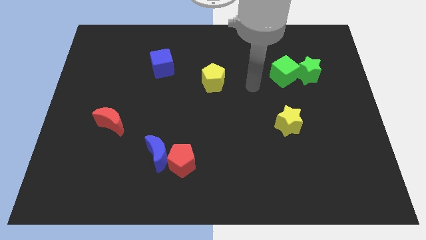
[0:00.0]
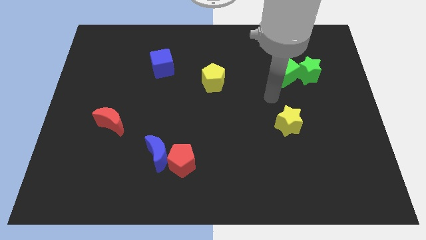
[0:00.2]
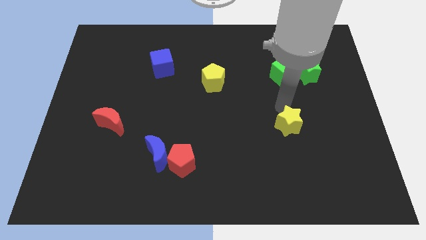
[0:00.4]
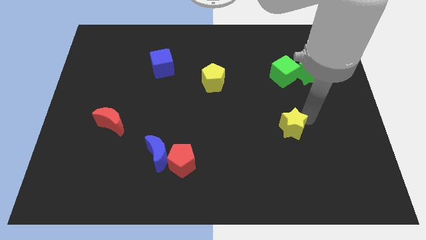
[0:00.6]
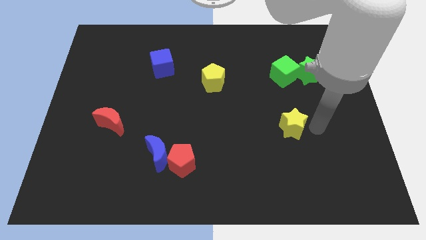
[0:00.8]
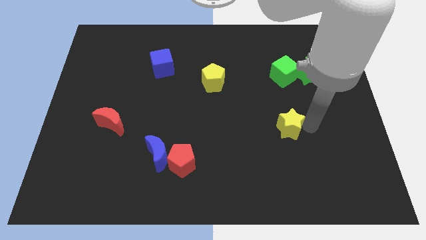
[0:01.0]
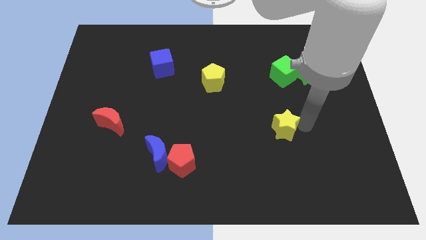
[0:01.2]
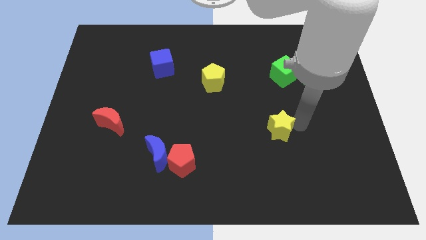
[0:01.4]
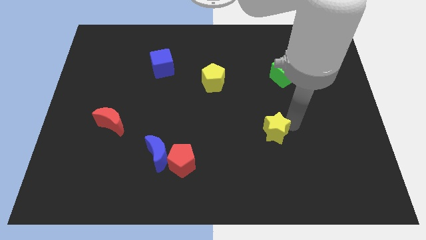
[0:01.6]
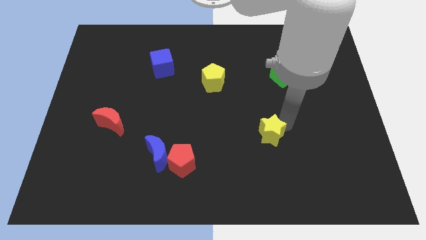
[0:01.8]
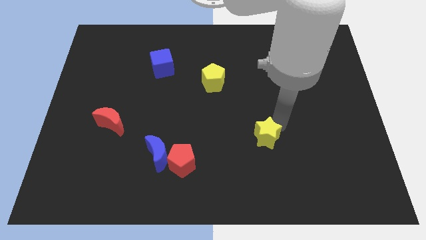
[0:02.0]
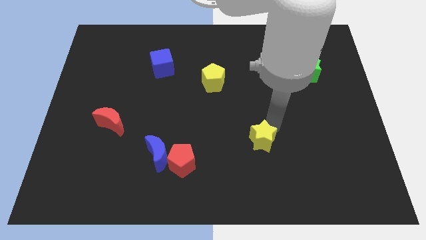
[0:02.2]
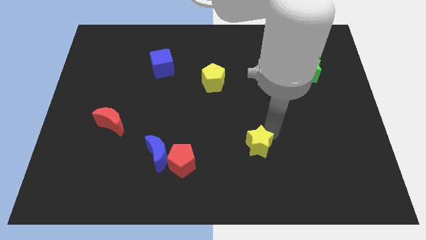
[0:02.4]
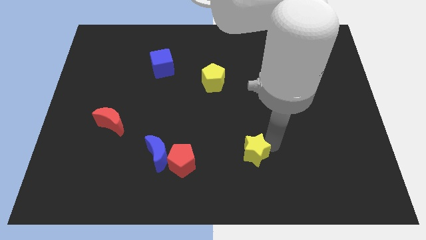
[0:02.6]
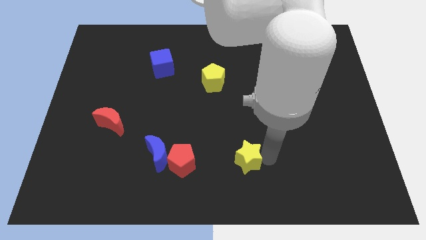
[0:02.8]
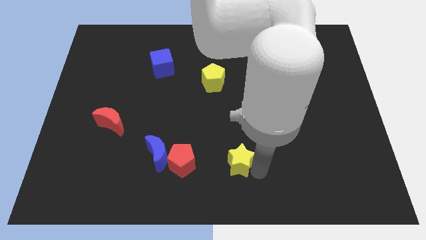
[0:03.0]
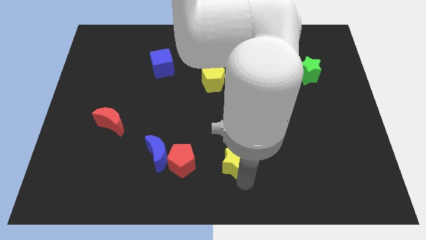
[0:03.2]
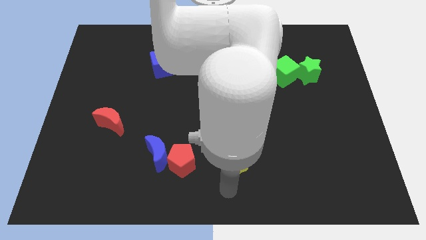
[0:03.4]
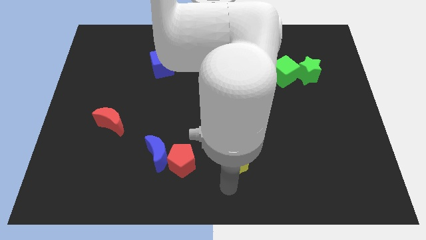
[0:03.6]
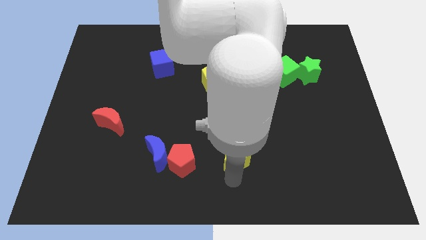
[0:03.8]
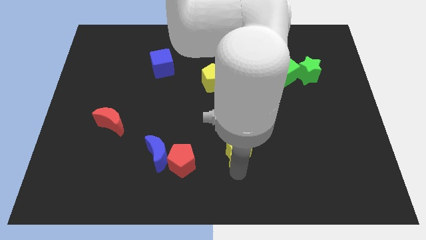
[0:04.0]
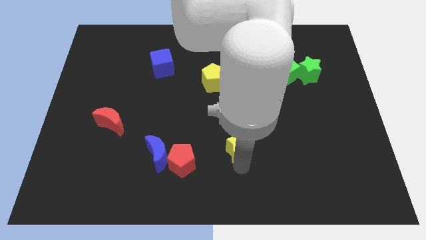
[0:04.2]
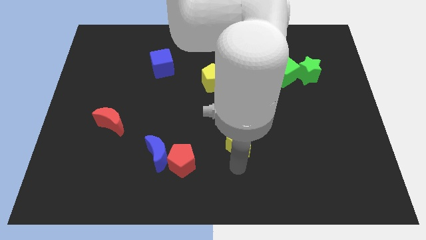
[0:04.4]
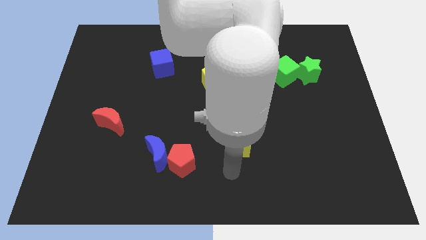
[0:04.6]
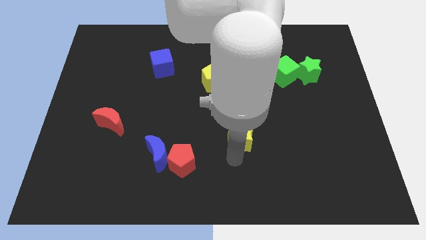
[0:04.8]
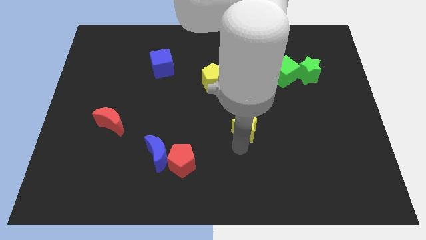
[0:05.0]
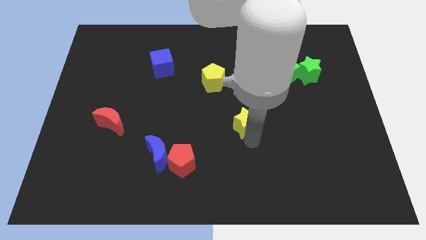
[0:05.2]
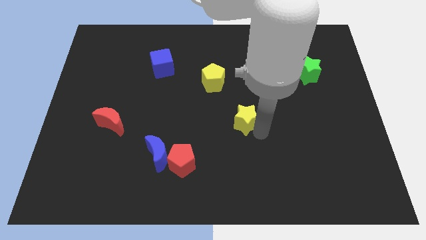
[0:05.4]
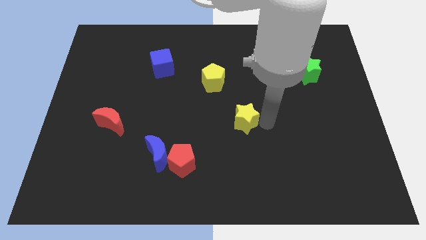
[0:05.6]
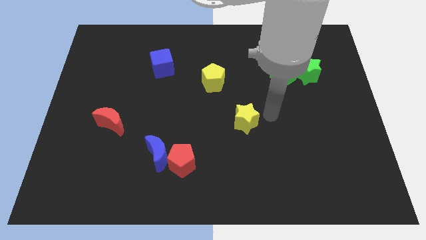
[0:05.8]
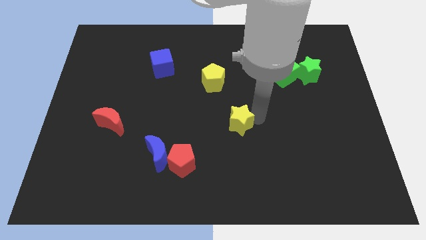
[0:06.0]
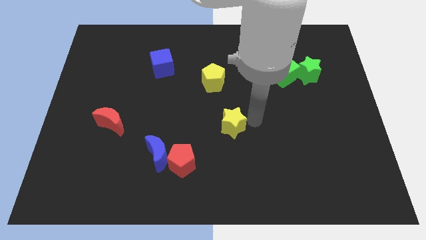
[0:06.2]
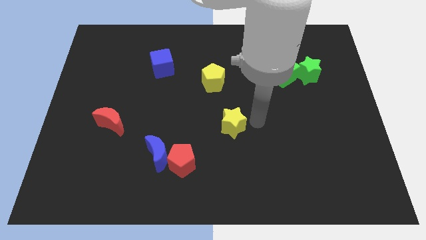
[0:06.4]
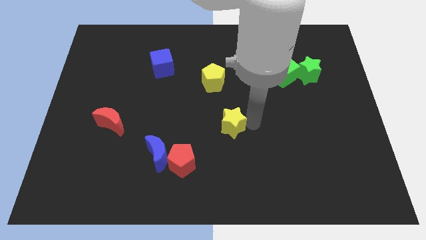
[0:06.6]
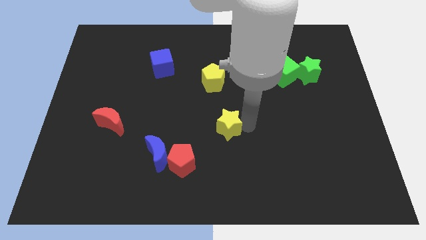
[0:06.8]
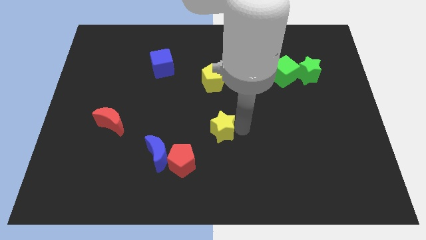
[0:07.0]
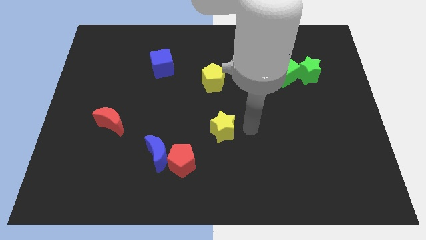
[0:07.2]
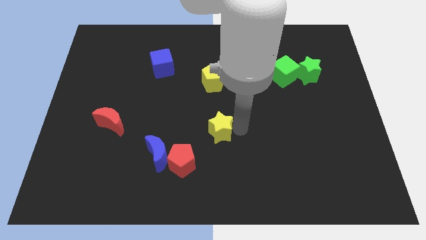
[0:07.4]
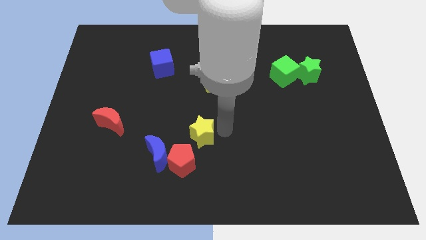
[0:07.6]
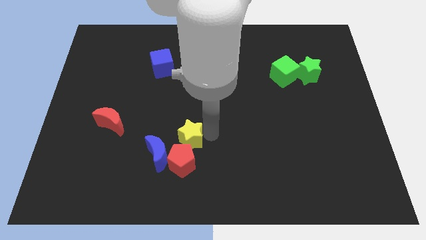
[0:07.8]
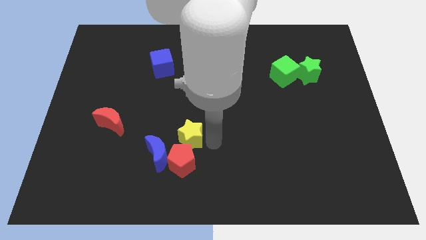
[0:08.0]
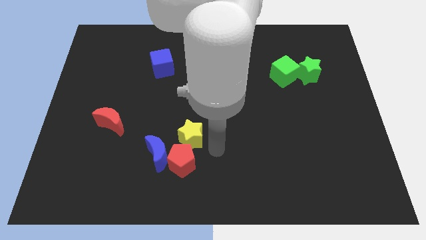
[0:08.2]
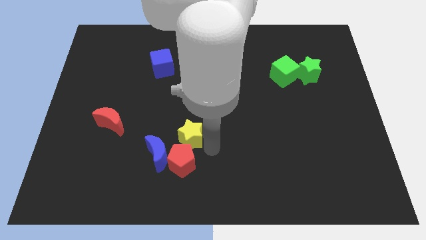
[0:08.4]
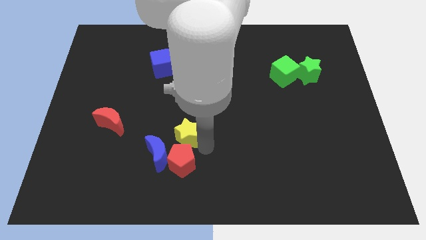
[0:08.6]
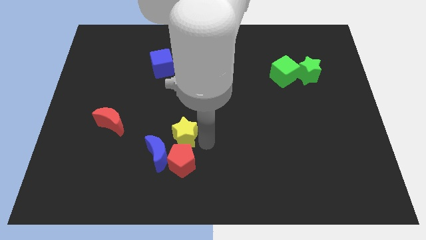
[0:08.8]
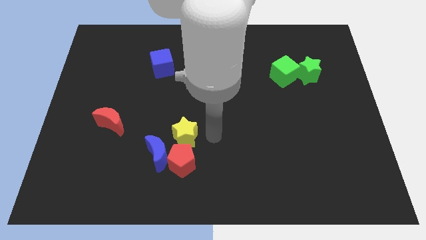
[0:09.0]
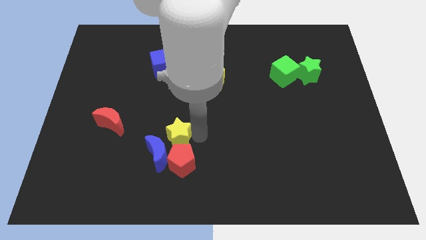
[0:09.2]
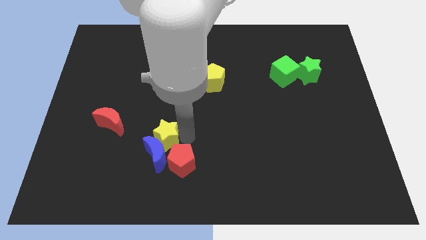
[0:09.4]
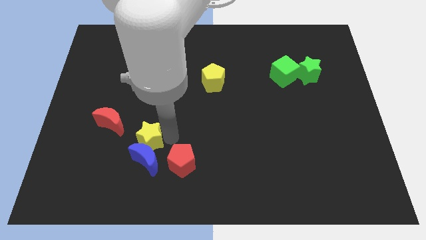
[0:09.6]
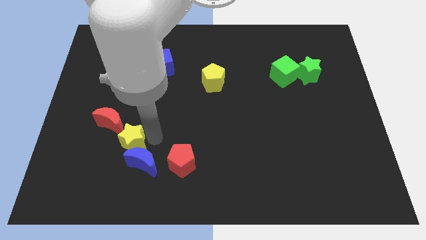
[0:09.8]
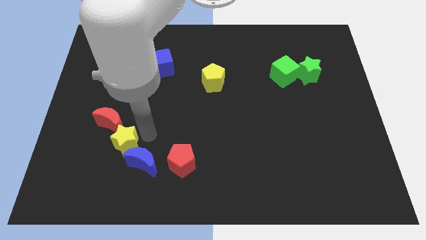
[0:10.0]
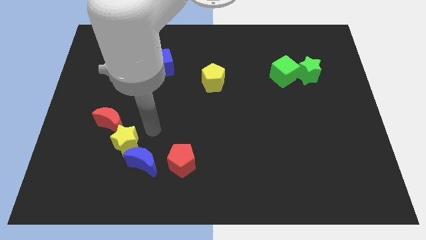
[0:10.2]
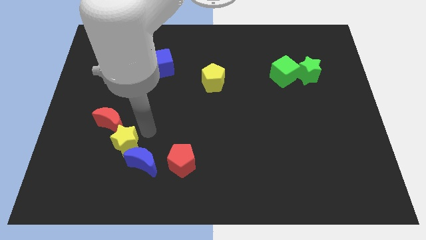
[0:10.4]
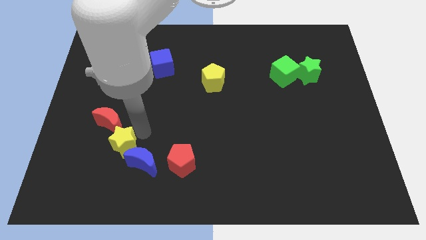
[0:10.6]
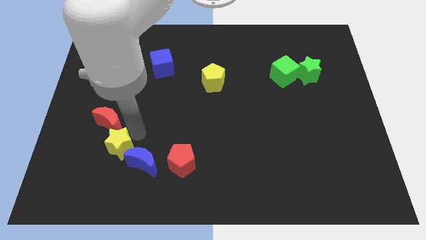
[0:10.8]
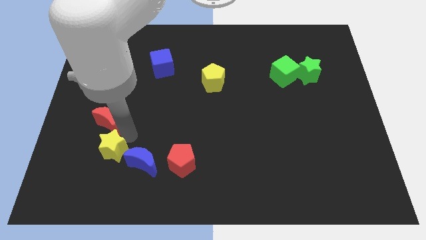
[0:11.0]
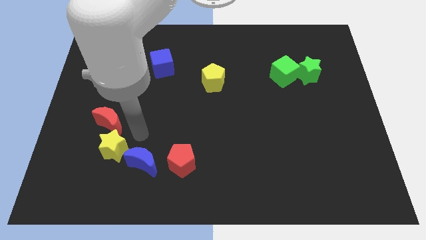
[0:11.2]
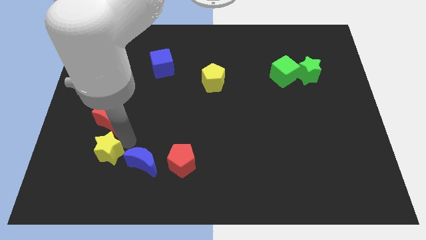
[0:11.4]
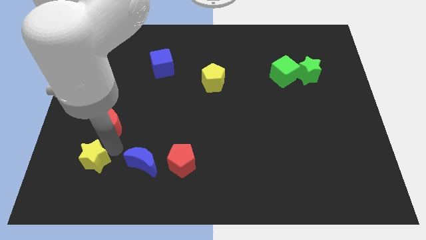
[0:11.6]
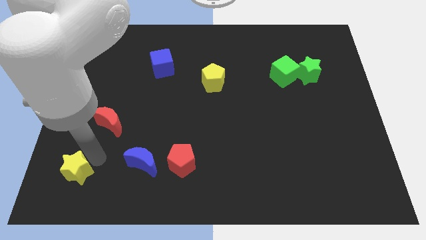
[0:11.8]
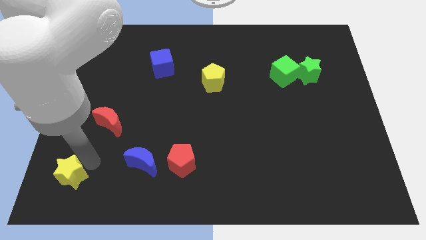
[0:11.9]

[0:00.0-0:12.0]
put the yellow star to the lower left corner

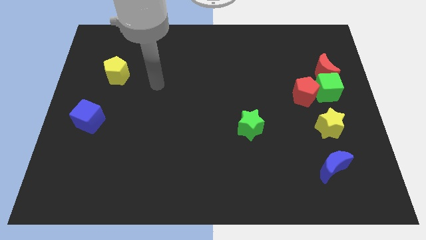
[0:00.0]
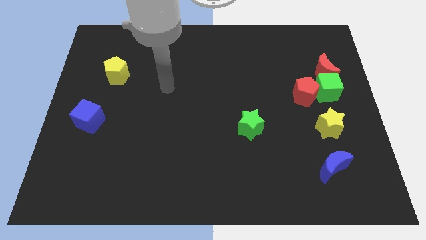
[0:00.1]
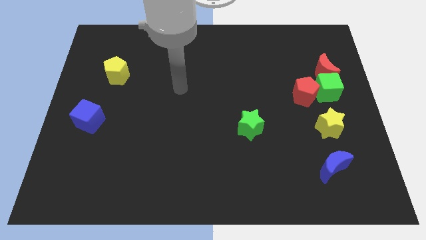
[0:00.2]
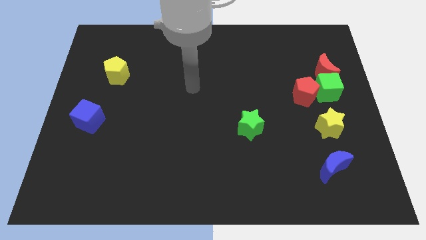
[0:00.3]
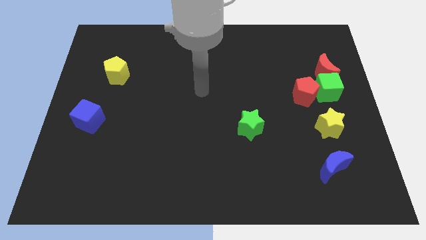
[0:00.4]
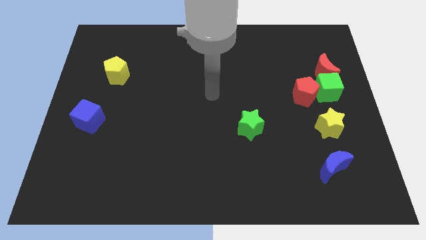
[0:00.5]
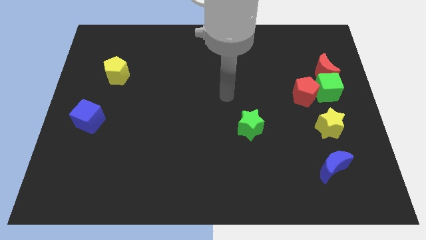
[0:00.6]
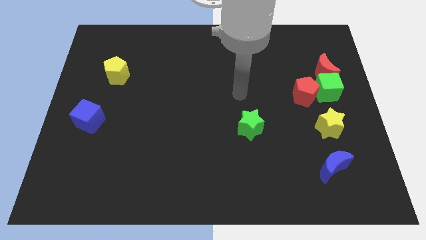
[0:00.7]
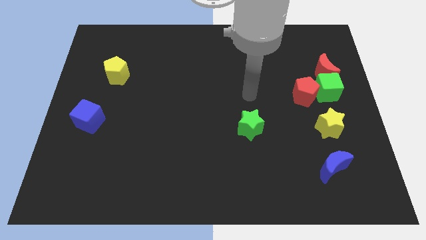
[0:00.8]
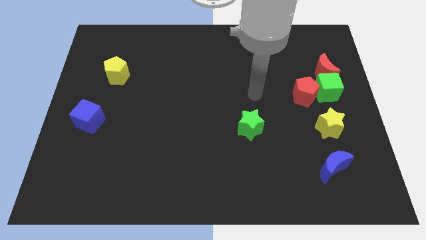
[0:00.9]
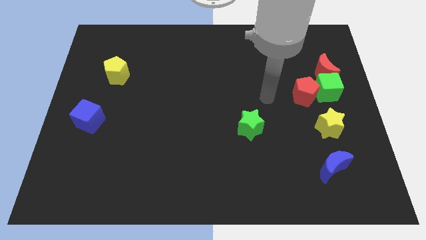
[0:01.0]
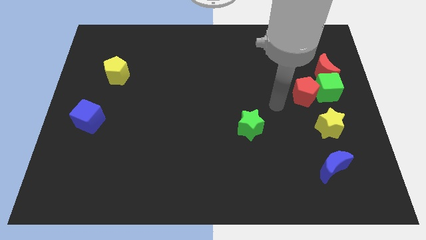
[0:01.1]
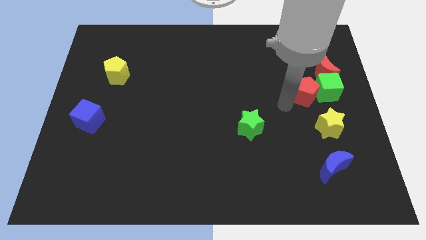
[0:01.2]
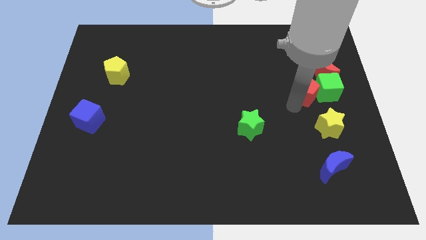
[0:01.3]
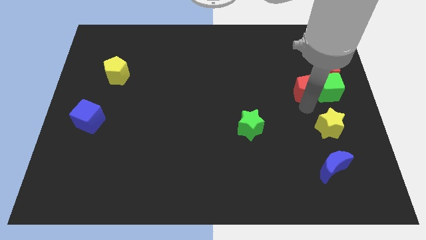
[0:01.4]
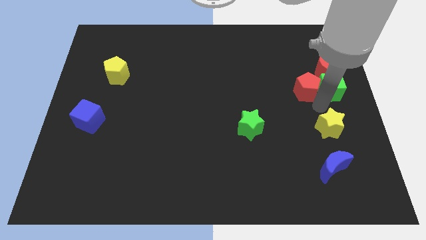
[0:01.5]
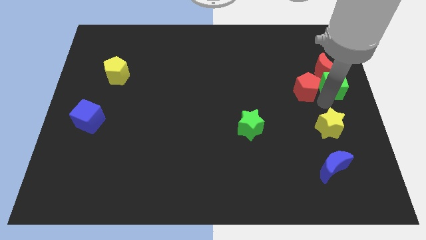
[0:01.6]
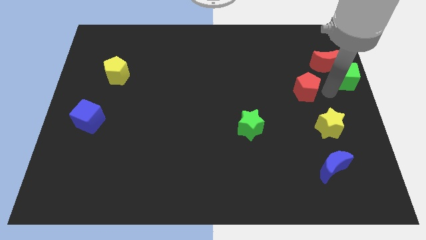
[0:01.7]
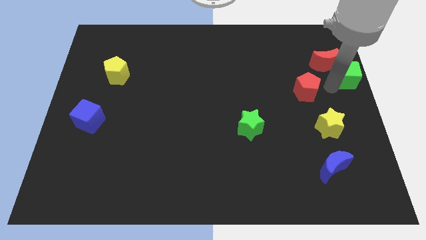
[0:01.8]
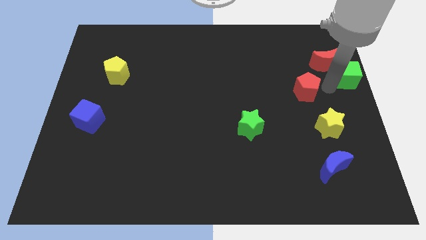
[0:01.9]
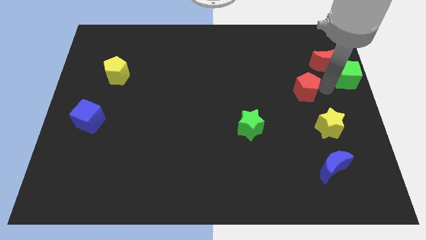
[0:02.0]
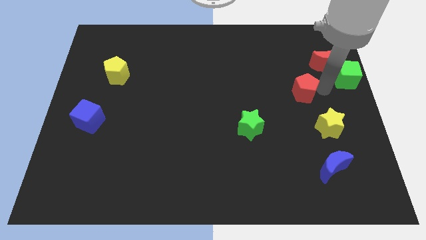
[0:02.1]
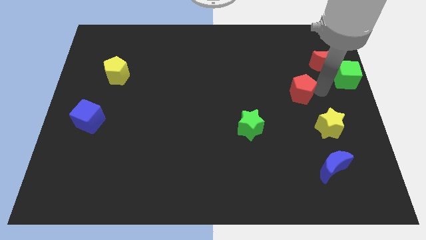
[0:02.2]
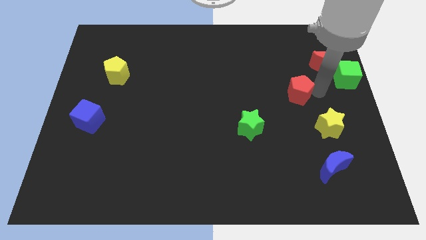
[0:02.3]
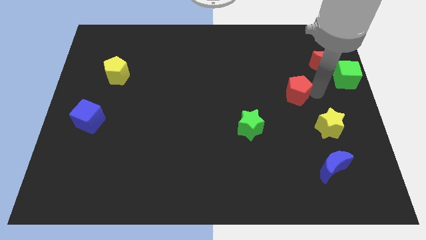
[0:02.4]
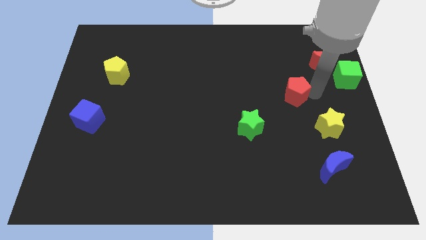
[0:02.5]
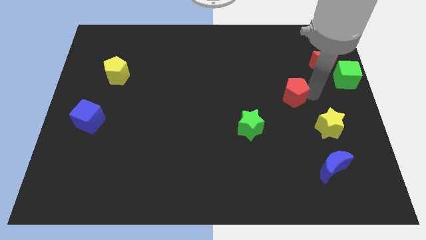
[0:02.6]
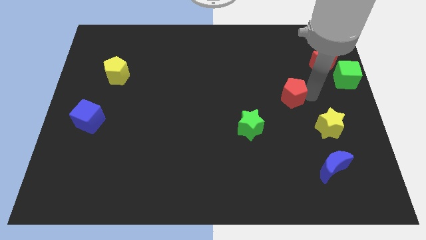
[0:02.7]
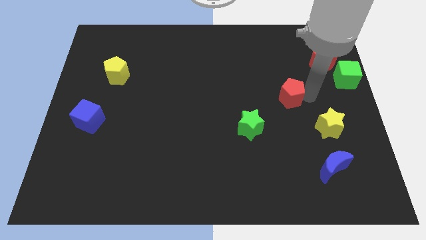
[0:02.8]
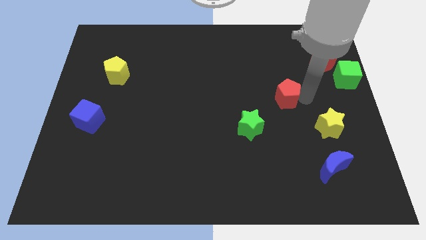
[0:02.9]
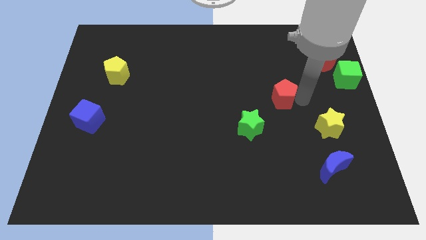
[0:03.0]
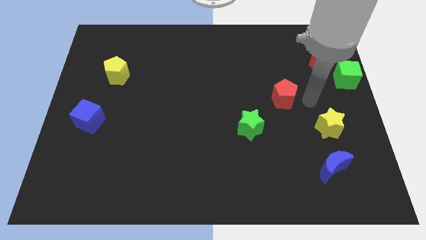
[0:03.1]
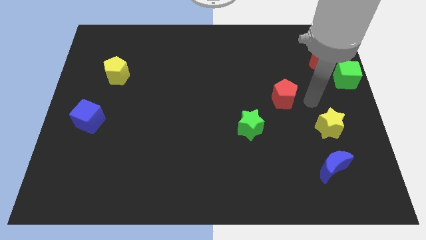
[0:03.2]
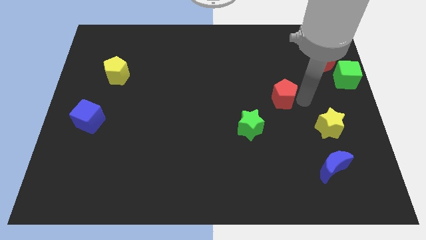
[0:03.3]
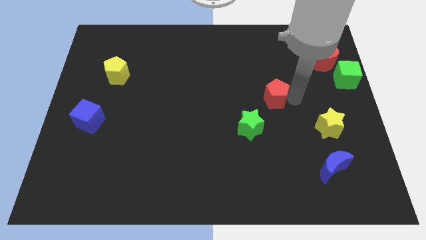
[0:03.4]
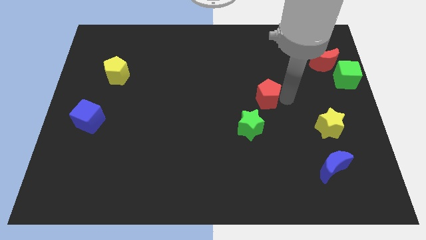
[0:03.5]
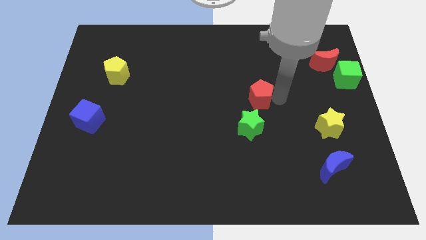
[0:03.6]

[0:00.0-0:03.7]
put the red pentagon to the center
